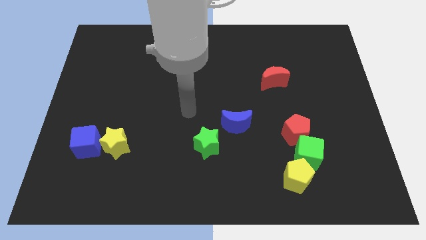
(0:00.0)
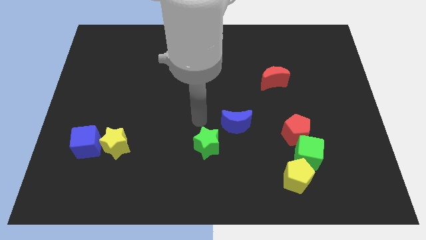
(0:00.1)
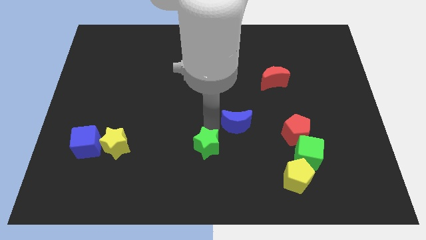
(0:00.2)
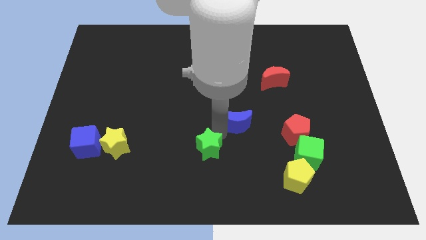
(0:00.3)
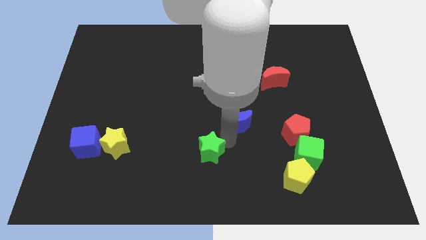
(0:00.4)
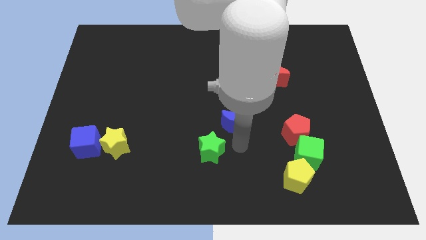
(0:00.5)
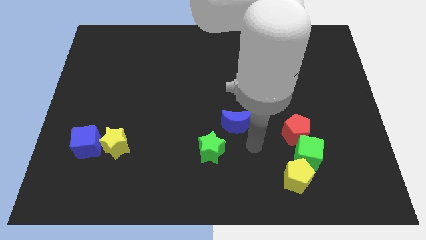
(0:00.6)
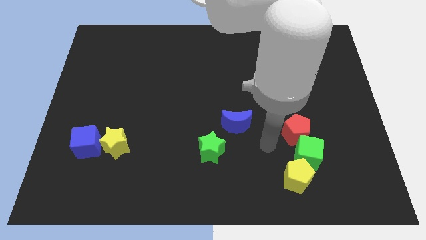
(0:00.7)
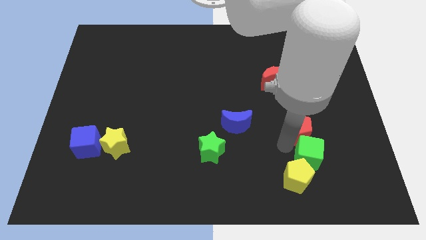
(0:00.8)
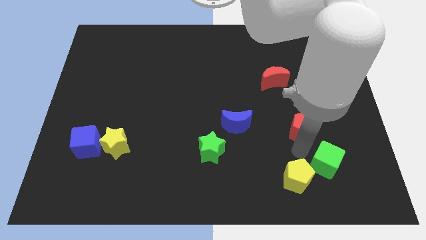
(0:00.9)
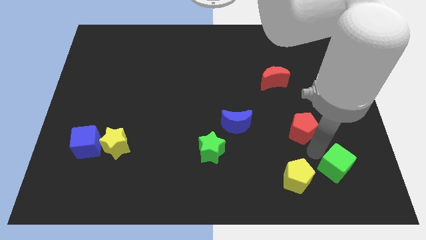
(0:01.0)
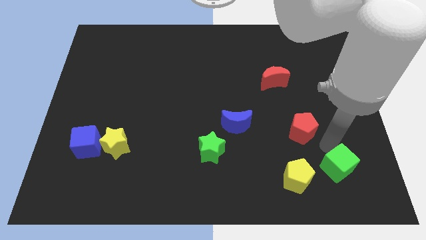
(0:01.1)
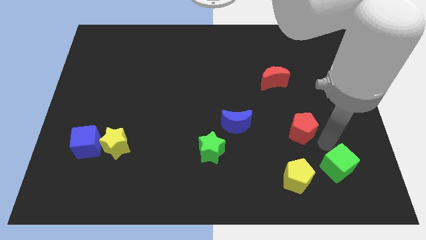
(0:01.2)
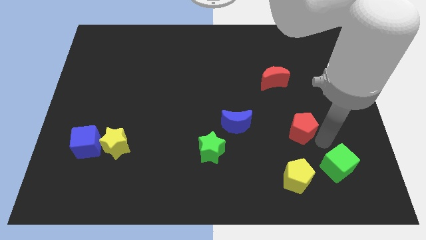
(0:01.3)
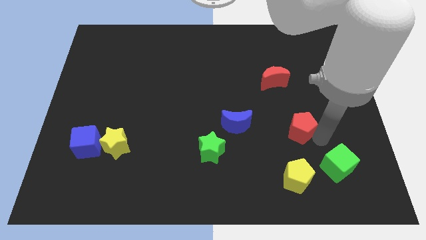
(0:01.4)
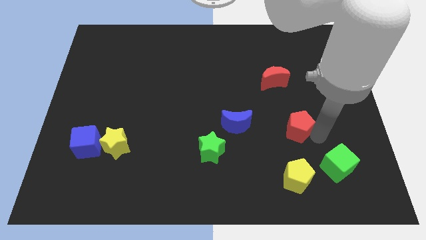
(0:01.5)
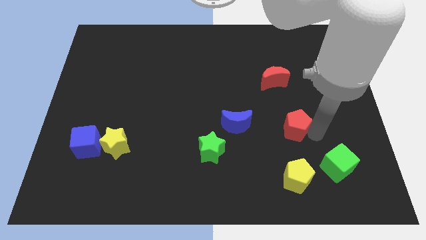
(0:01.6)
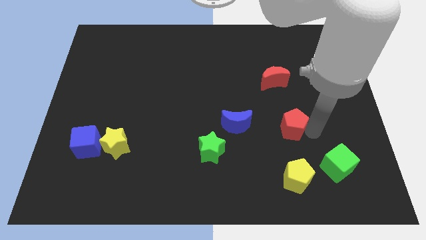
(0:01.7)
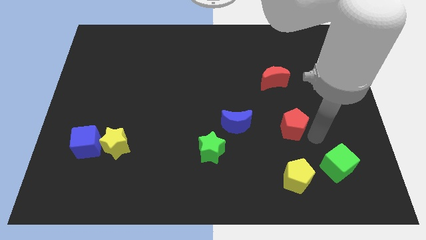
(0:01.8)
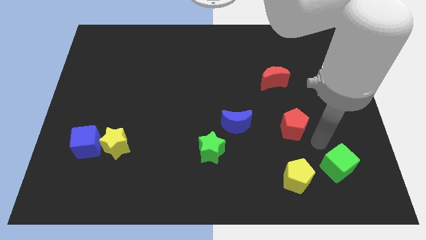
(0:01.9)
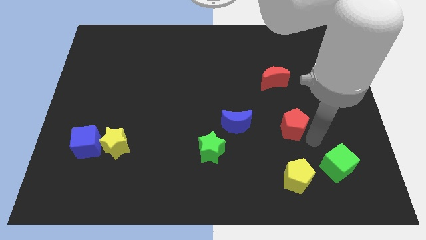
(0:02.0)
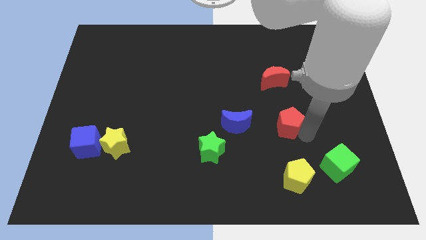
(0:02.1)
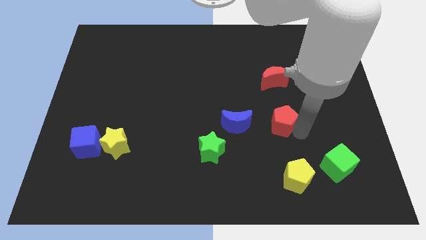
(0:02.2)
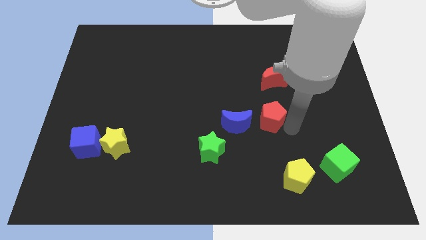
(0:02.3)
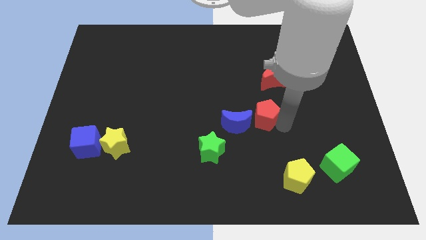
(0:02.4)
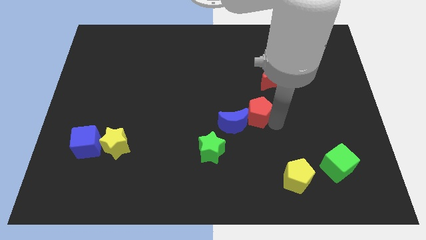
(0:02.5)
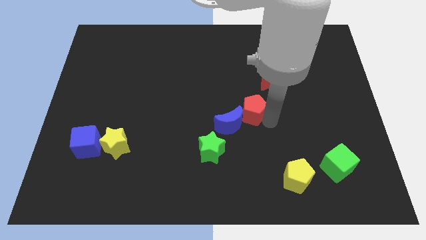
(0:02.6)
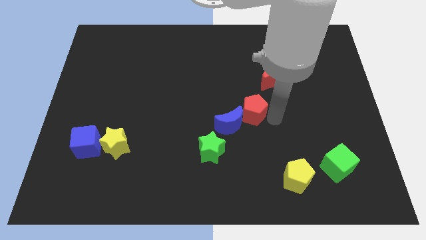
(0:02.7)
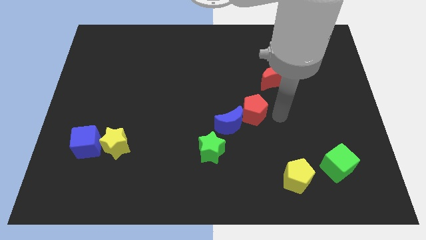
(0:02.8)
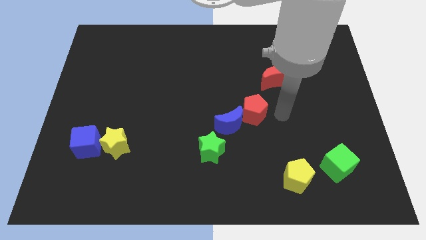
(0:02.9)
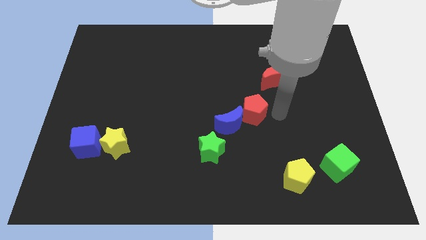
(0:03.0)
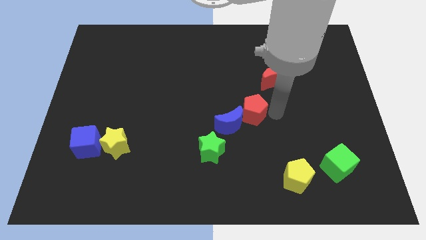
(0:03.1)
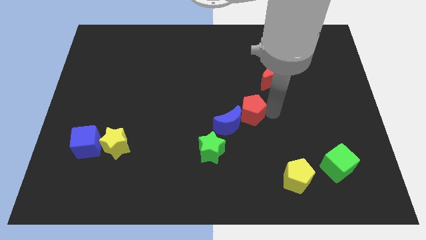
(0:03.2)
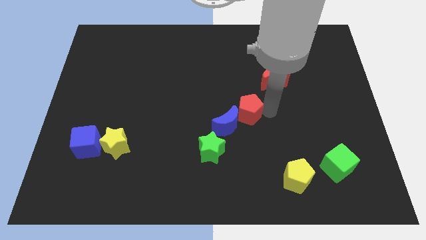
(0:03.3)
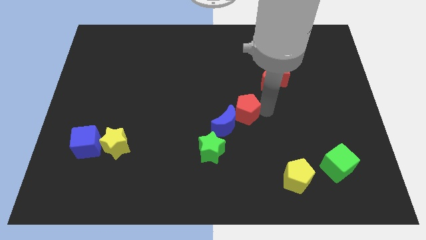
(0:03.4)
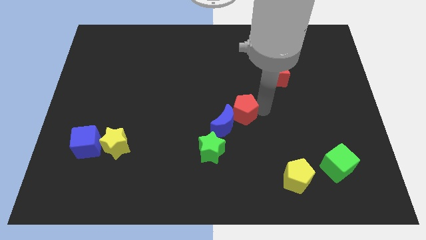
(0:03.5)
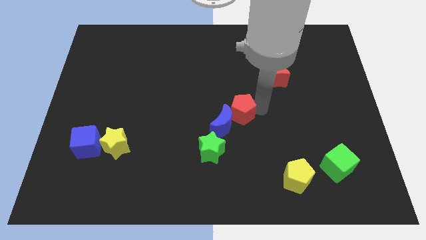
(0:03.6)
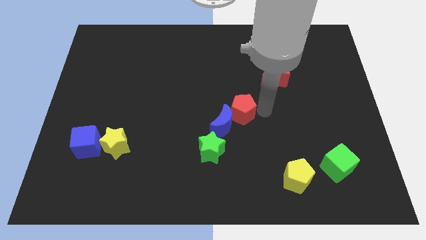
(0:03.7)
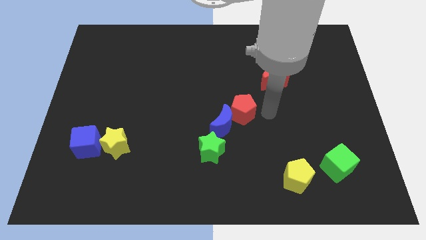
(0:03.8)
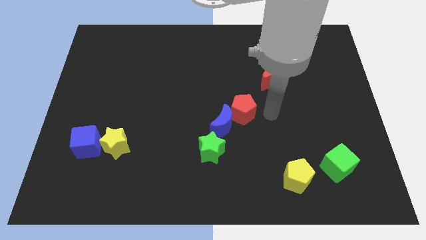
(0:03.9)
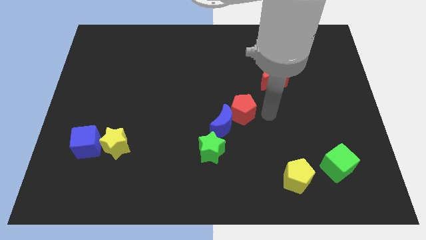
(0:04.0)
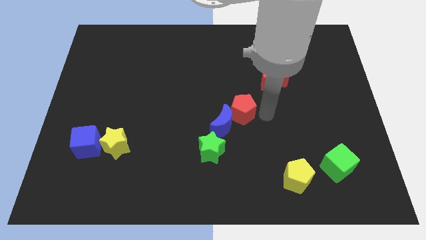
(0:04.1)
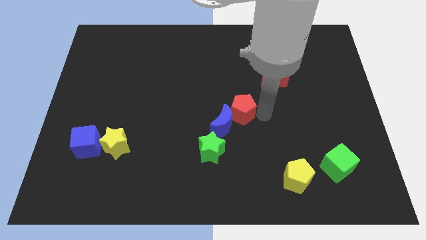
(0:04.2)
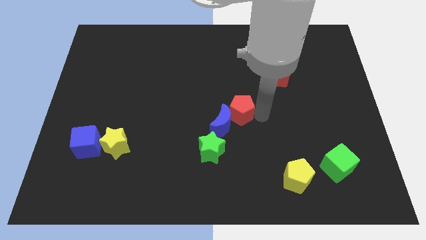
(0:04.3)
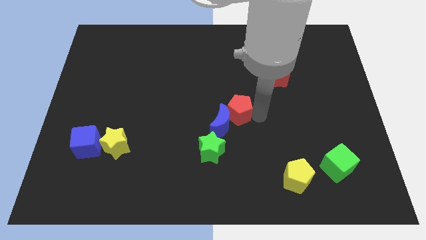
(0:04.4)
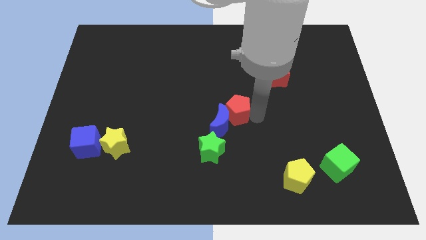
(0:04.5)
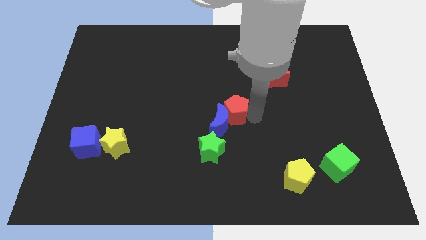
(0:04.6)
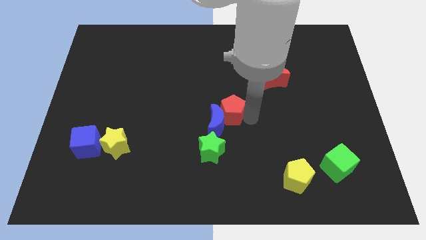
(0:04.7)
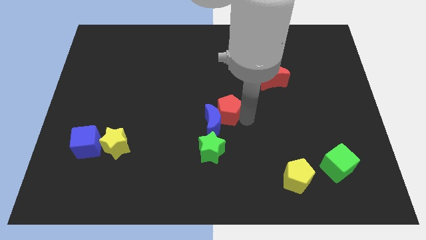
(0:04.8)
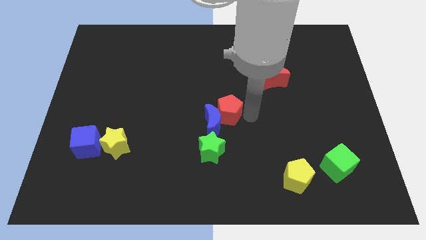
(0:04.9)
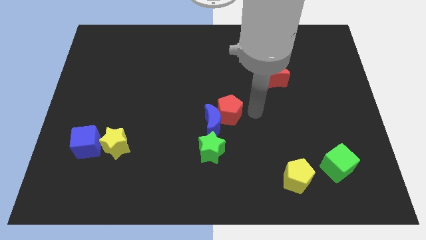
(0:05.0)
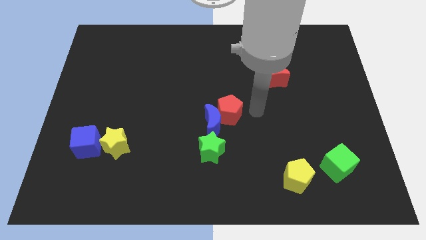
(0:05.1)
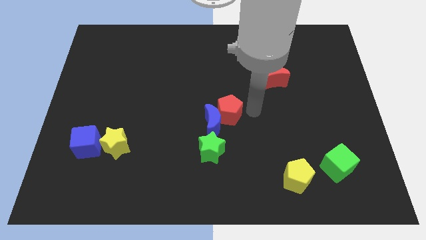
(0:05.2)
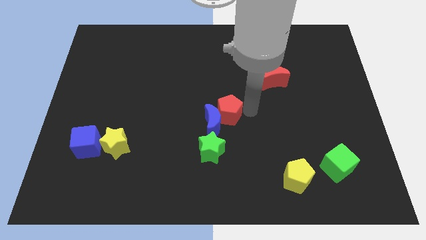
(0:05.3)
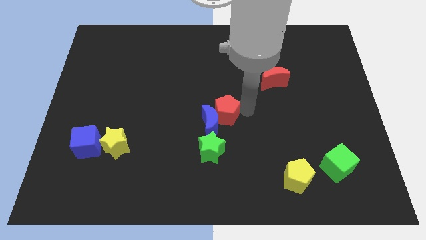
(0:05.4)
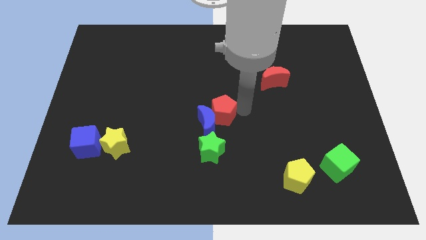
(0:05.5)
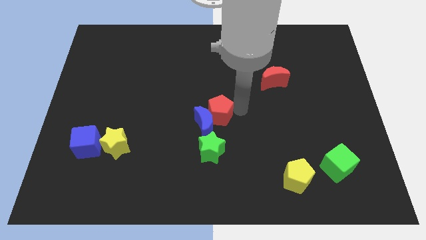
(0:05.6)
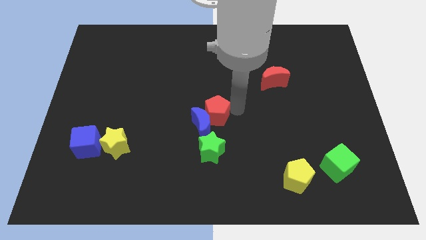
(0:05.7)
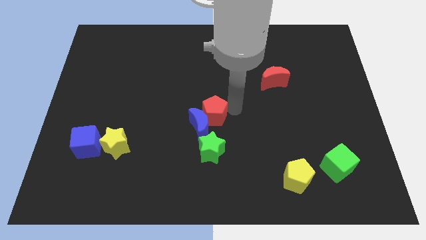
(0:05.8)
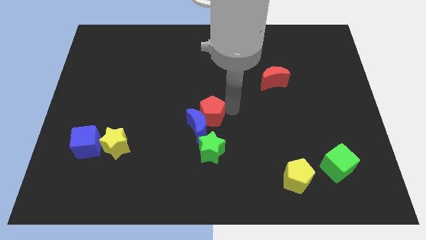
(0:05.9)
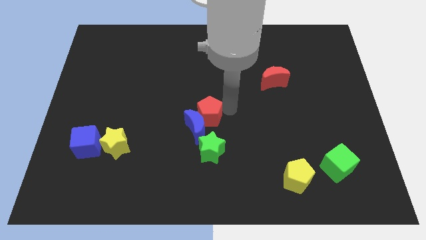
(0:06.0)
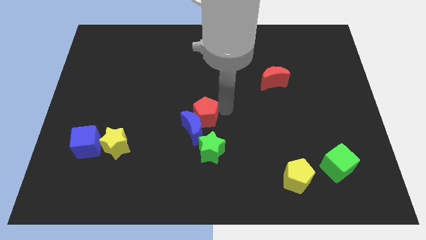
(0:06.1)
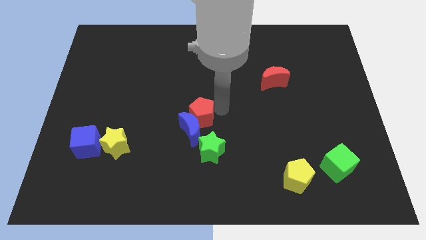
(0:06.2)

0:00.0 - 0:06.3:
slide the red pentagon left

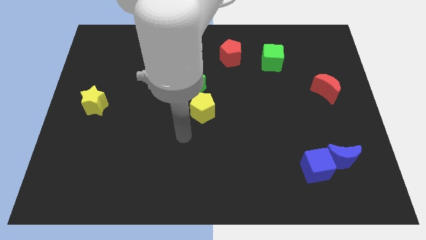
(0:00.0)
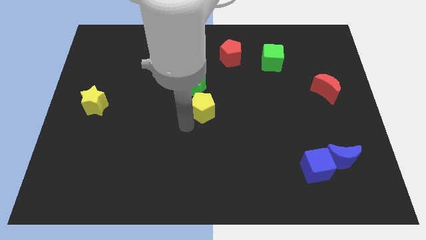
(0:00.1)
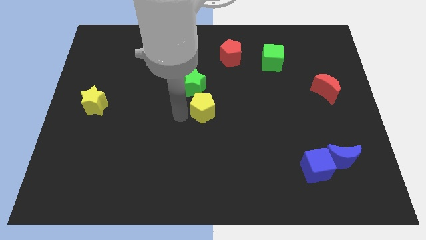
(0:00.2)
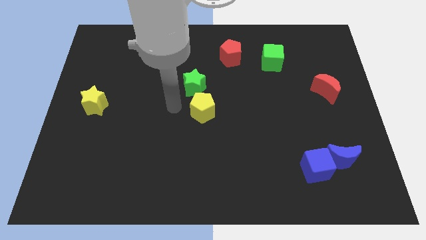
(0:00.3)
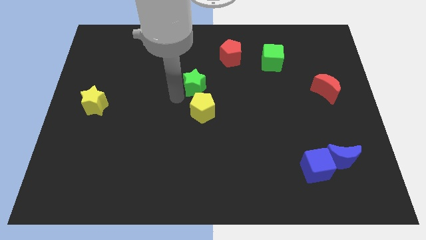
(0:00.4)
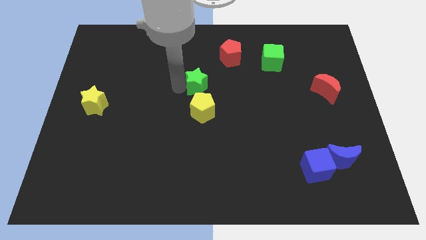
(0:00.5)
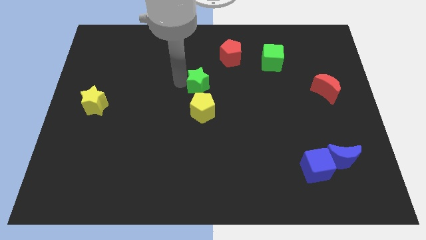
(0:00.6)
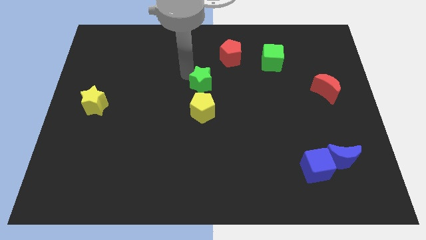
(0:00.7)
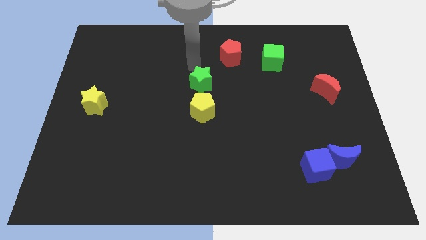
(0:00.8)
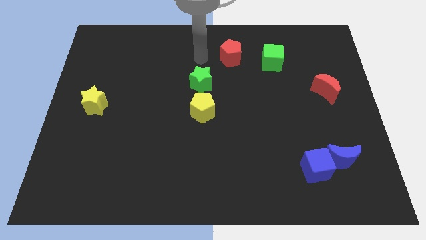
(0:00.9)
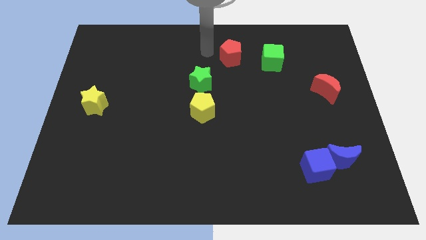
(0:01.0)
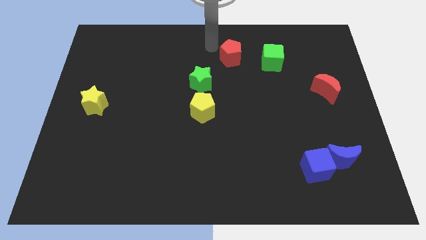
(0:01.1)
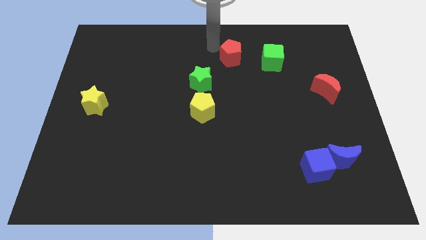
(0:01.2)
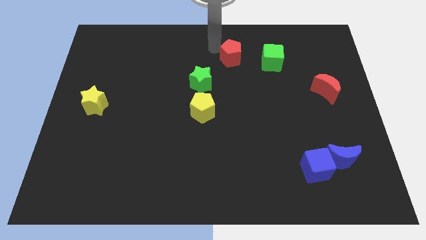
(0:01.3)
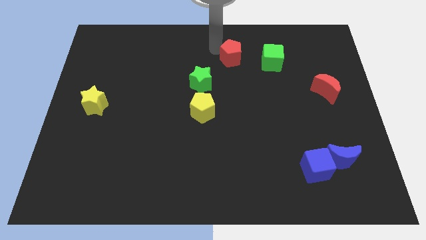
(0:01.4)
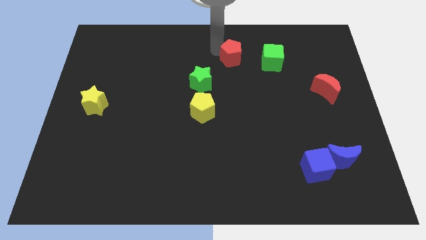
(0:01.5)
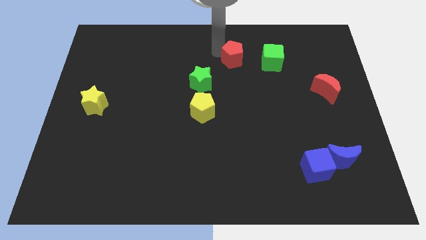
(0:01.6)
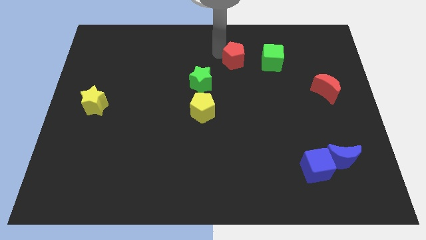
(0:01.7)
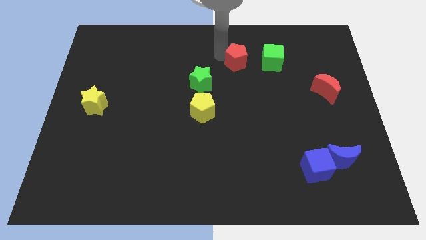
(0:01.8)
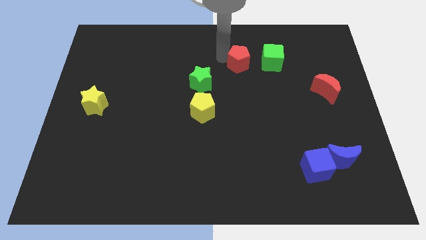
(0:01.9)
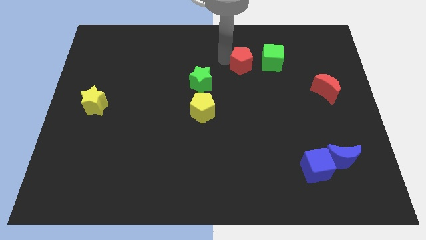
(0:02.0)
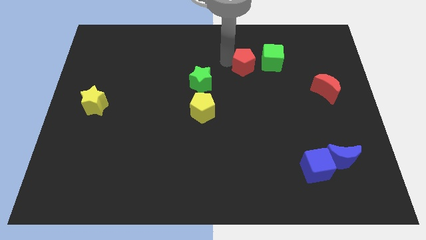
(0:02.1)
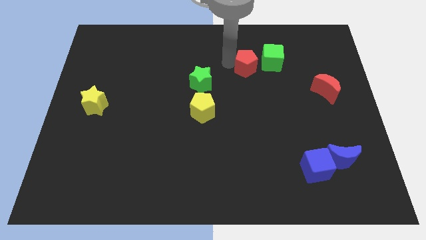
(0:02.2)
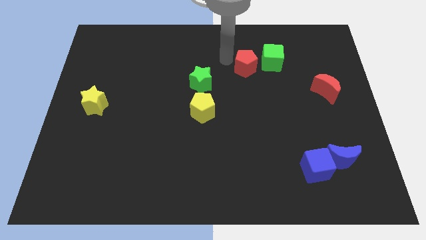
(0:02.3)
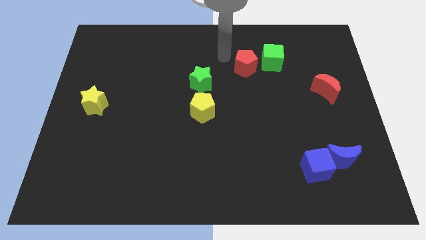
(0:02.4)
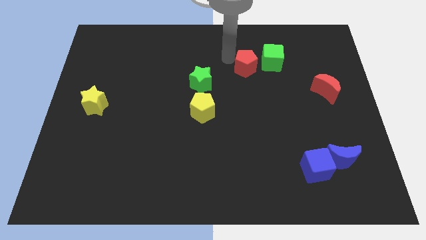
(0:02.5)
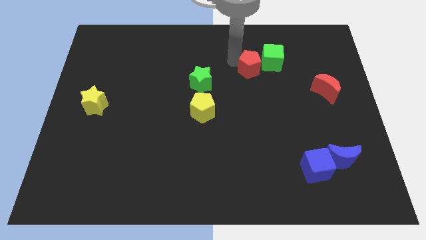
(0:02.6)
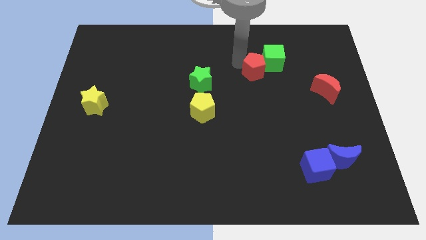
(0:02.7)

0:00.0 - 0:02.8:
move the red pentagon a little down and to the right diagonally
